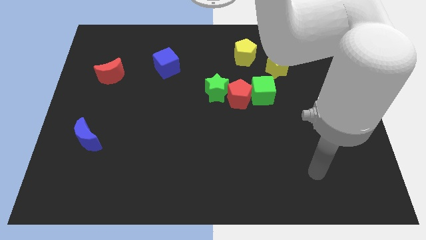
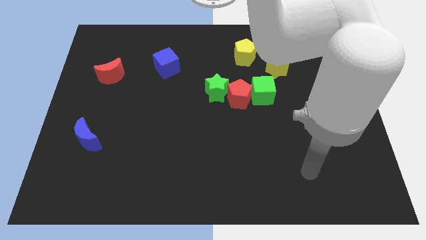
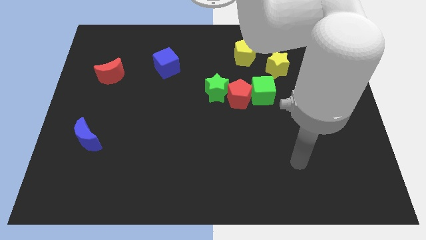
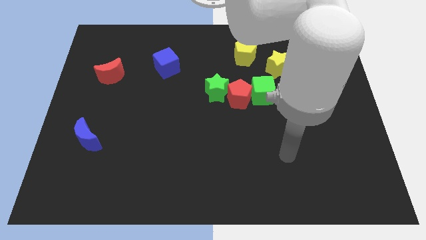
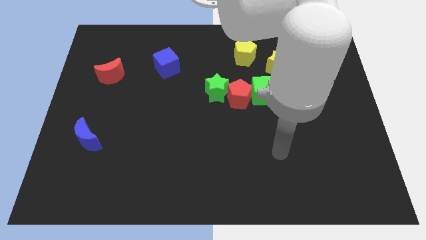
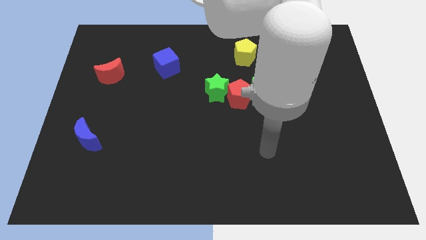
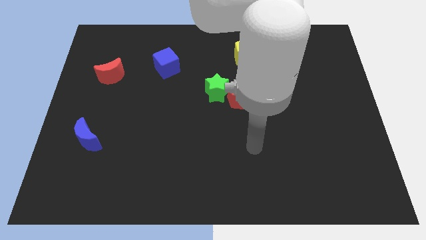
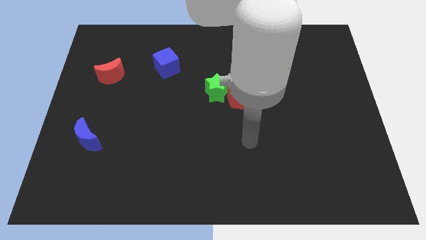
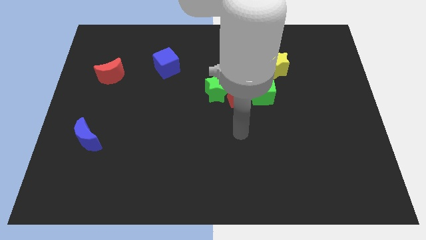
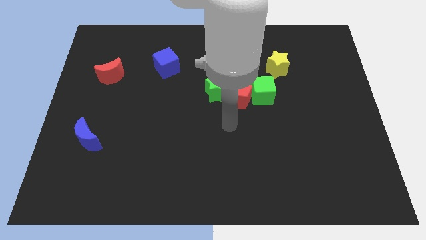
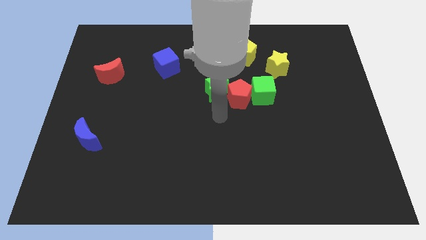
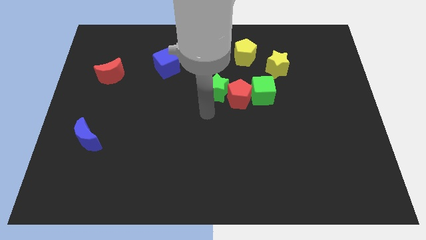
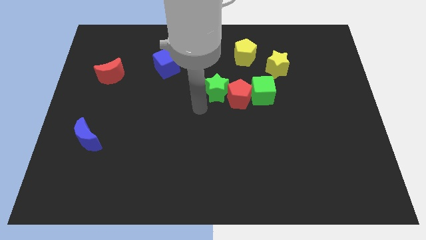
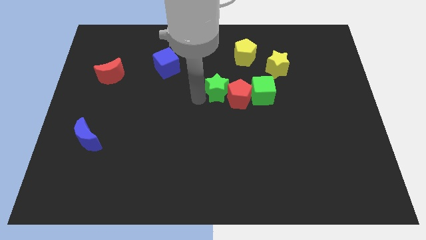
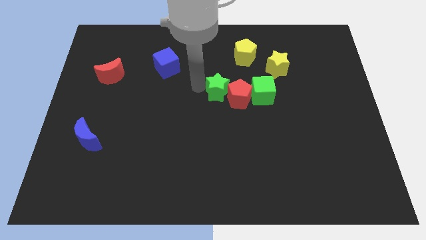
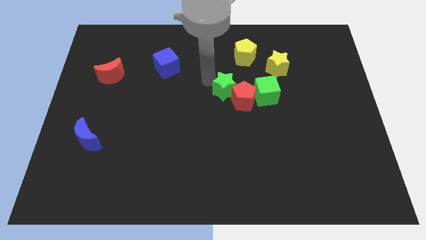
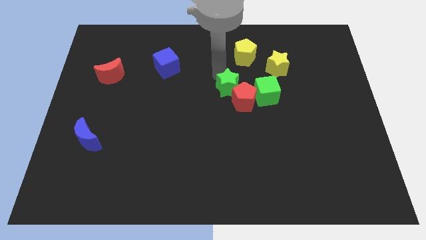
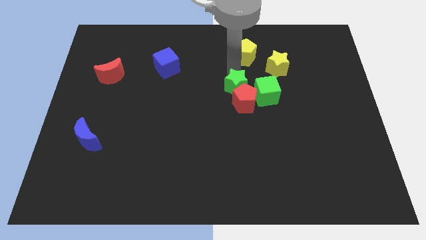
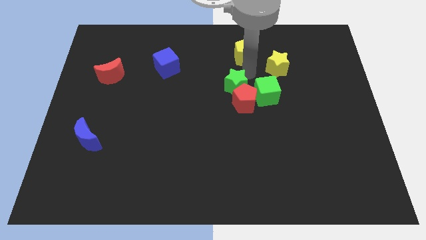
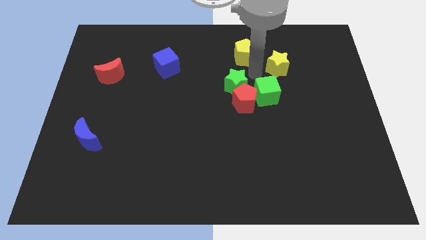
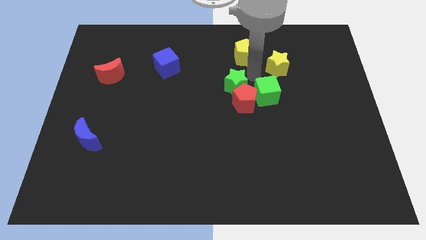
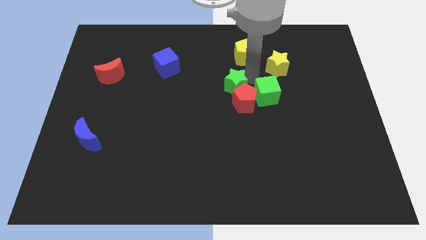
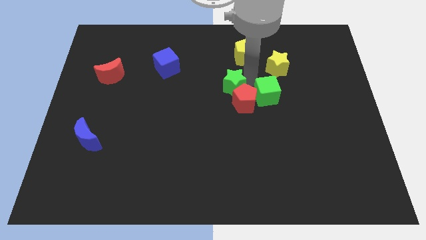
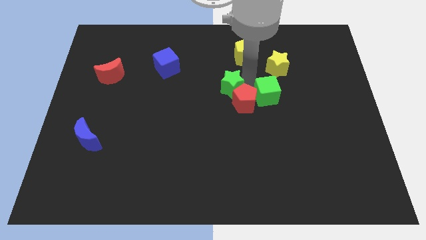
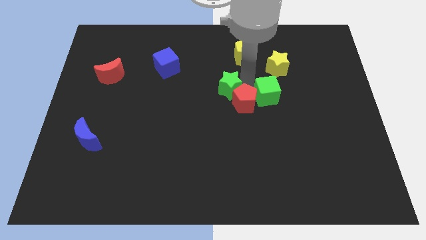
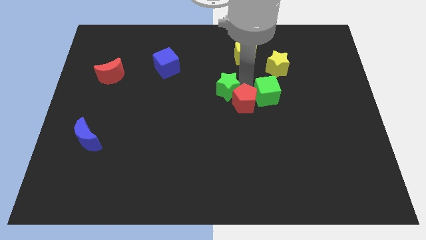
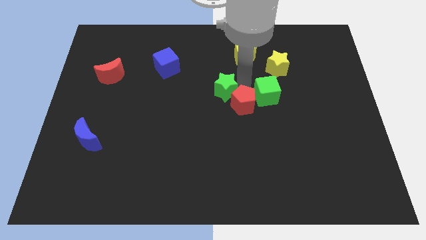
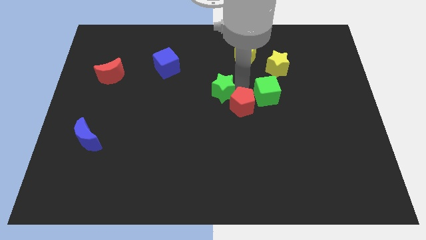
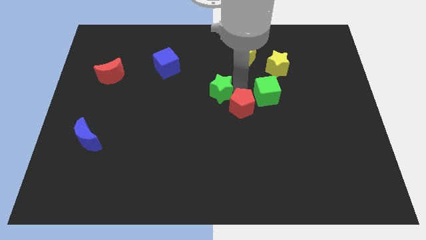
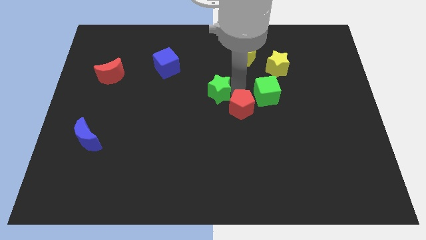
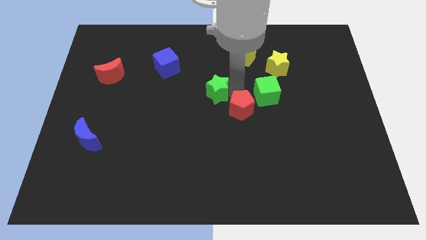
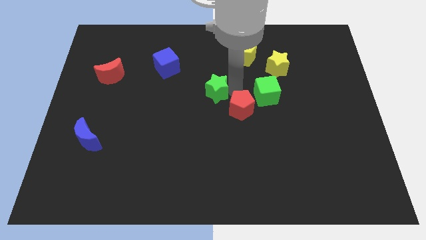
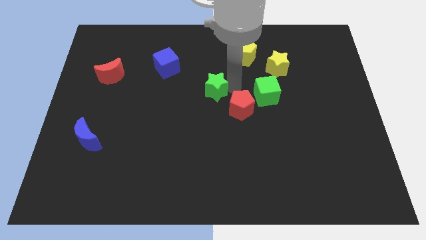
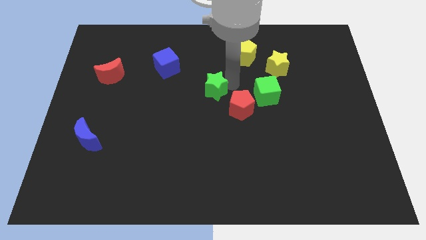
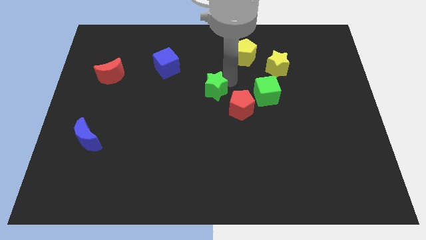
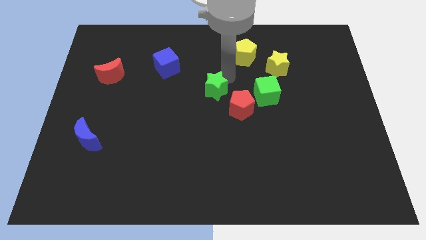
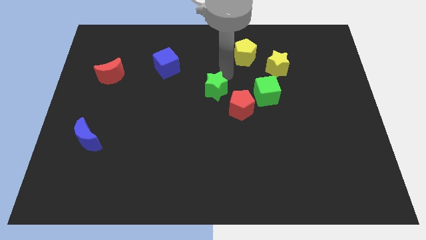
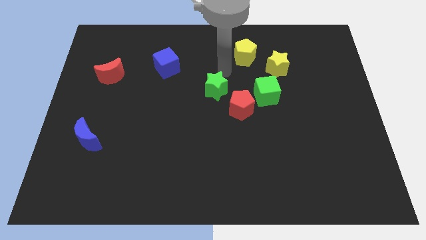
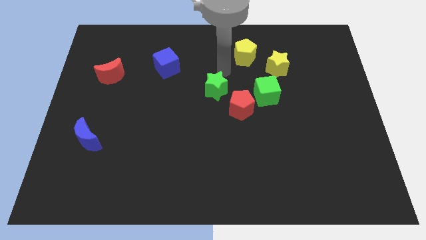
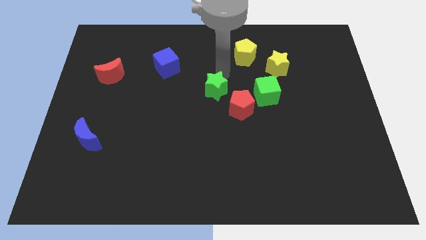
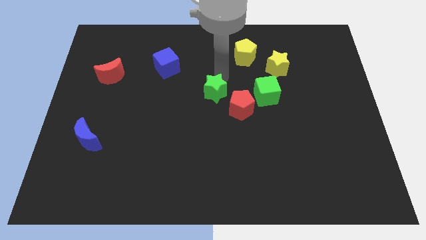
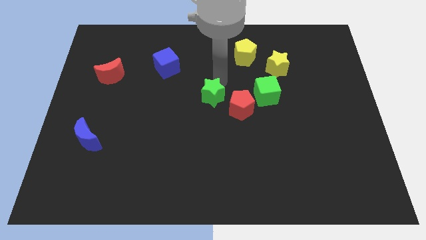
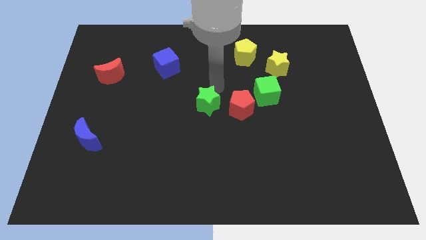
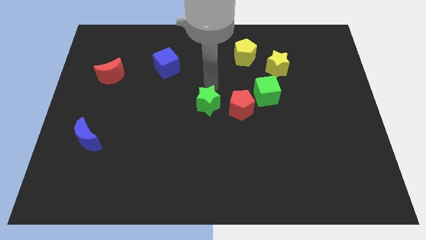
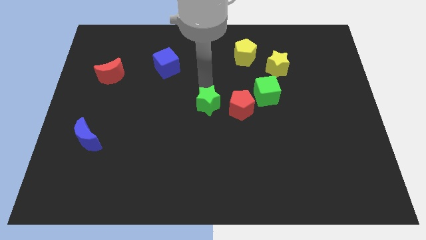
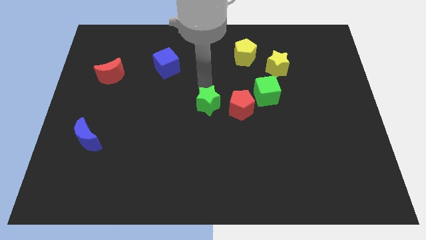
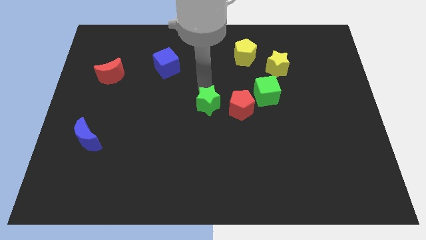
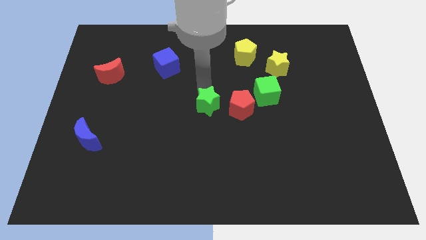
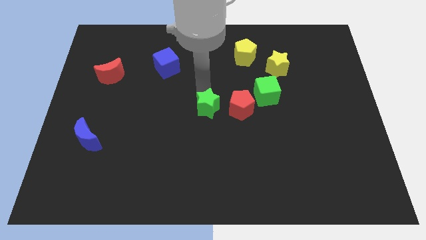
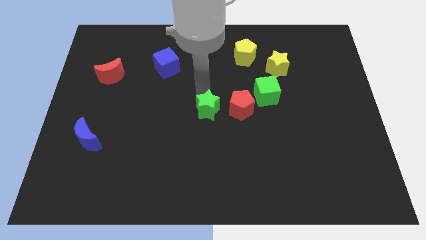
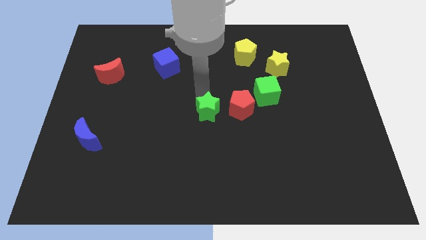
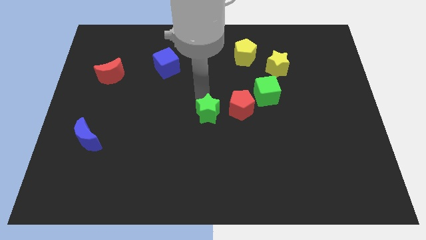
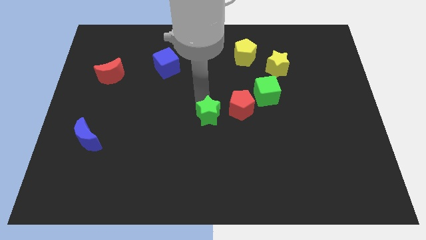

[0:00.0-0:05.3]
slide the green star down slightly

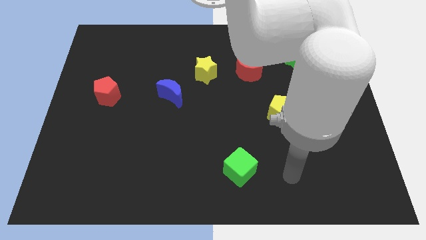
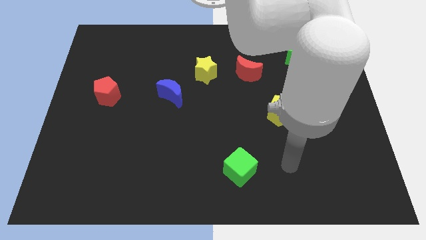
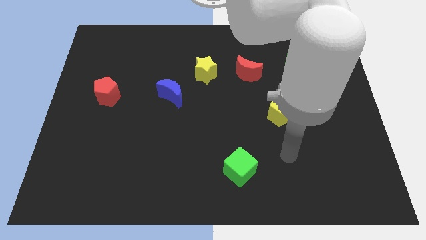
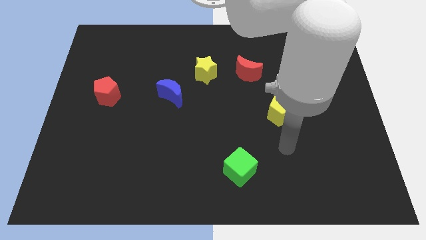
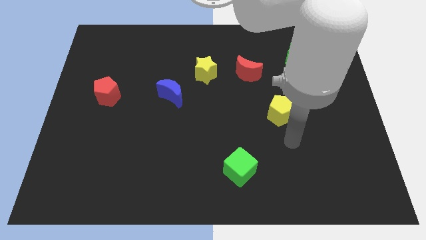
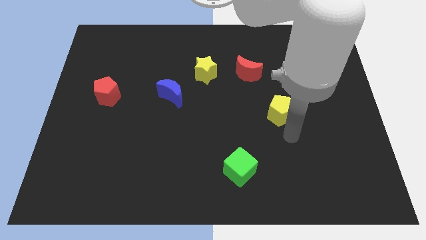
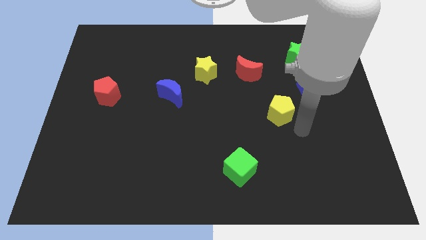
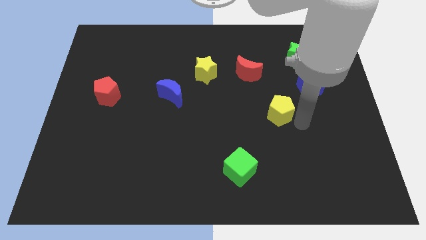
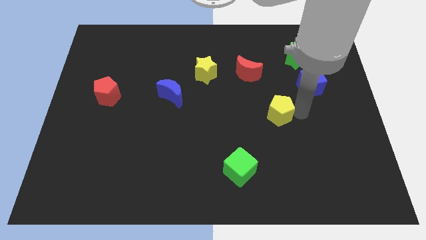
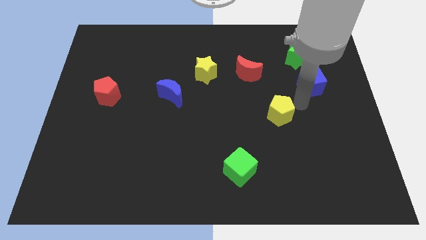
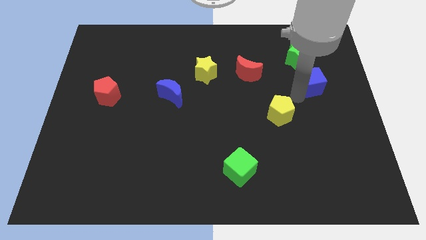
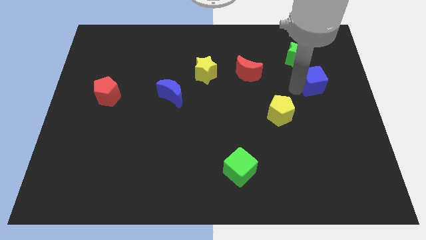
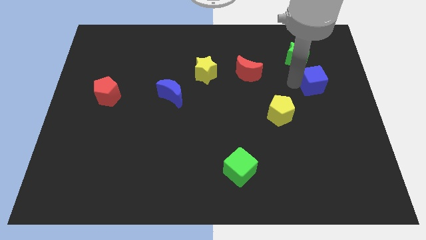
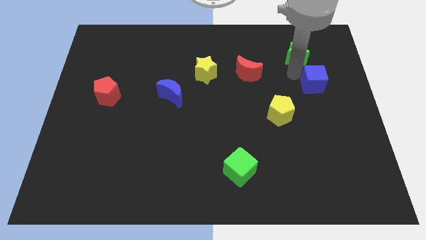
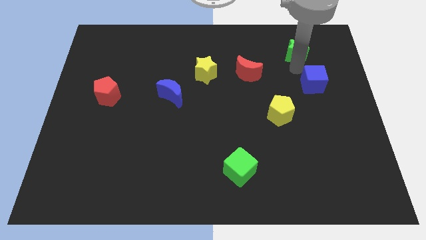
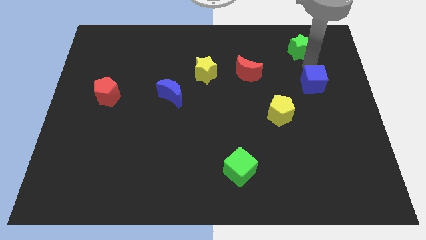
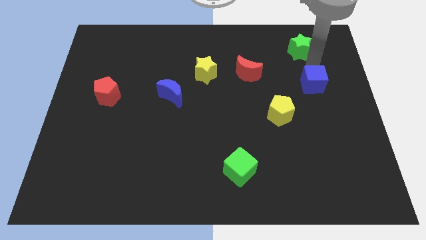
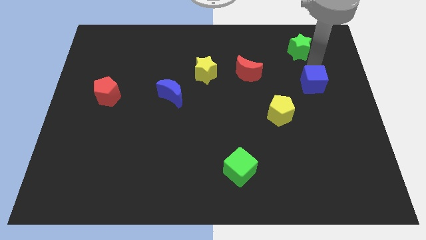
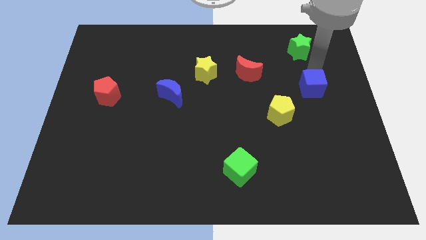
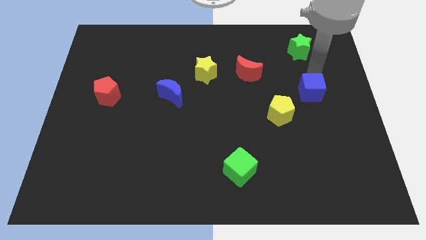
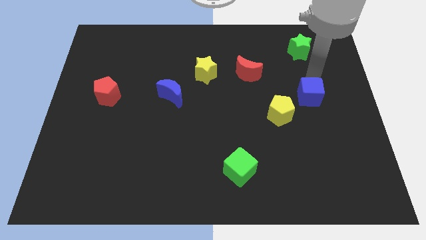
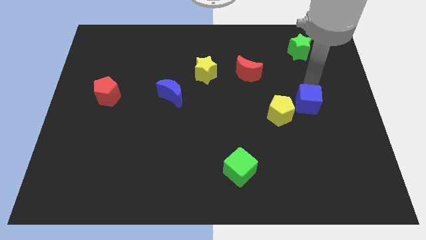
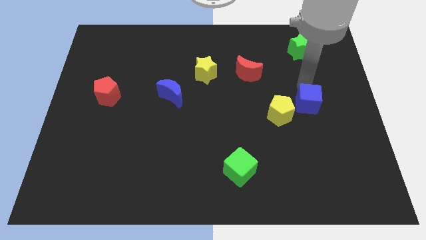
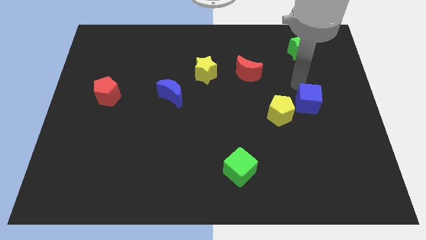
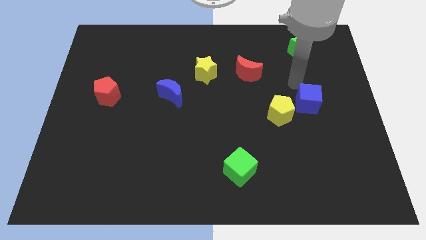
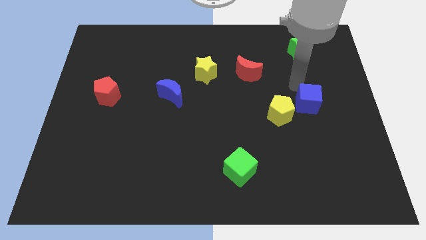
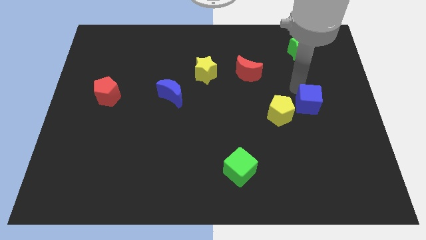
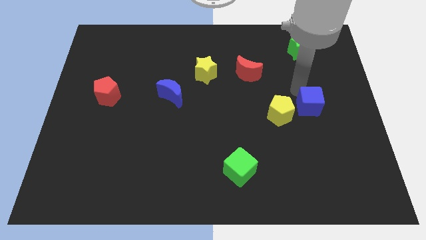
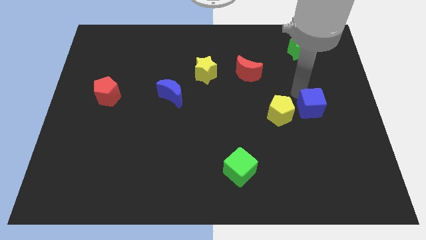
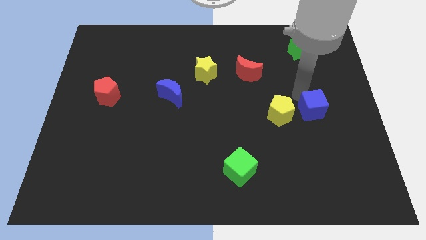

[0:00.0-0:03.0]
slightly move the blue cube downwards
